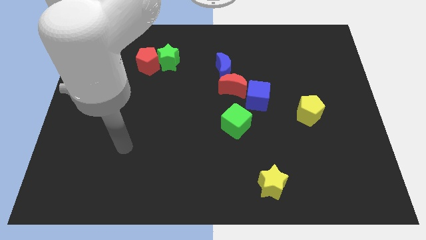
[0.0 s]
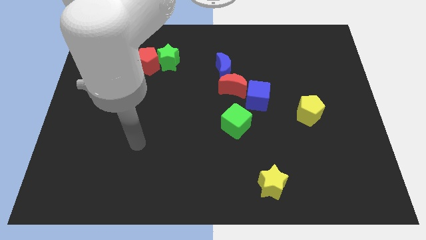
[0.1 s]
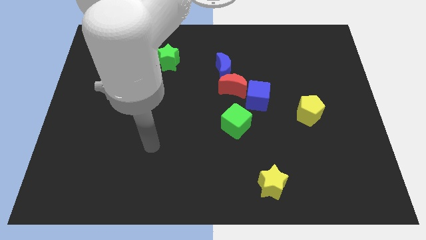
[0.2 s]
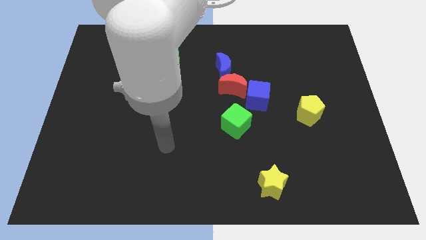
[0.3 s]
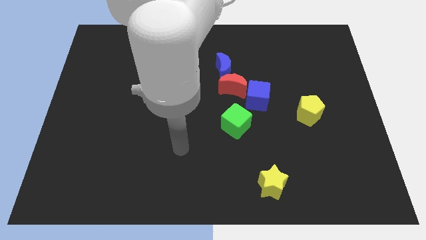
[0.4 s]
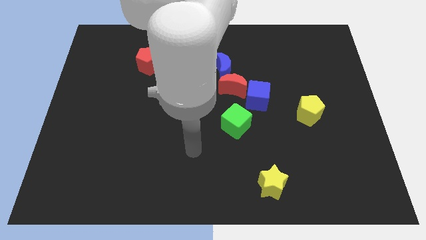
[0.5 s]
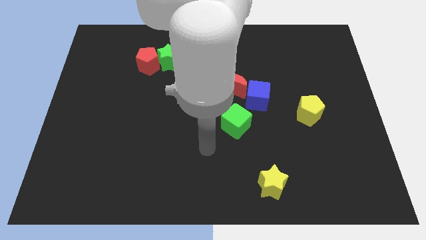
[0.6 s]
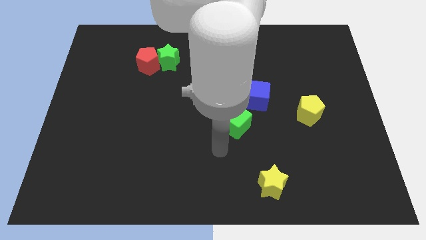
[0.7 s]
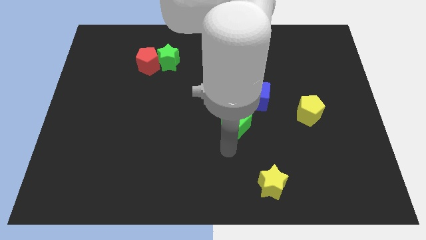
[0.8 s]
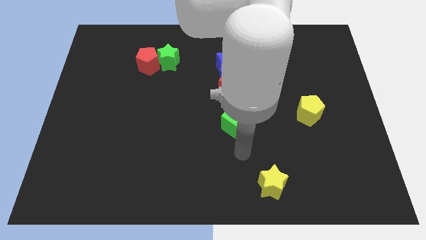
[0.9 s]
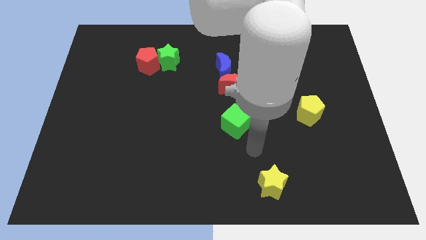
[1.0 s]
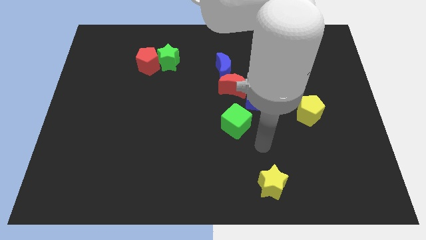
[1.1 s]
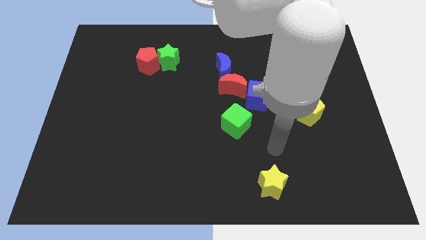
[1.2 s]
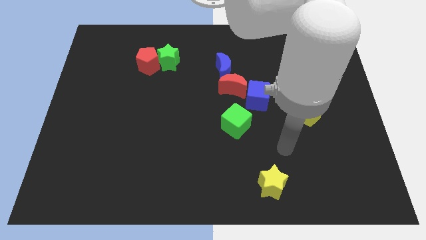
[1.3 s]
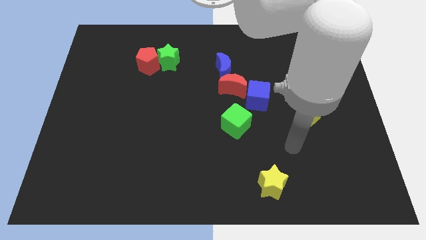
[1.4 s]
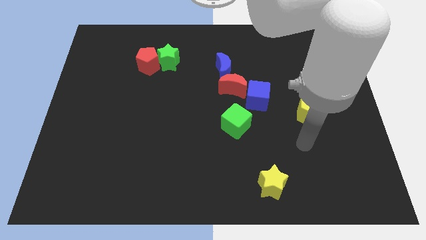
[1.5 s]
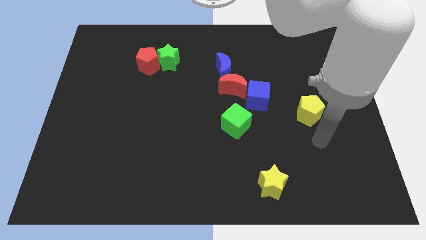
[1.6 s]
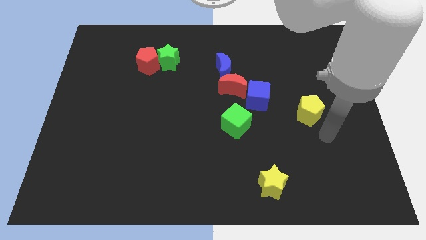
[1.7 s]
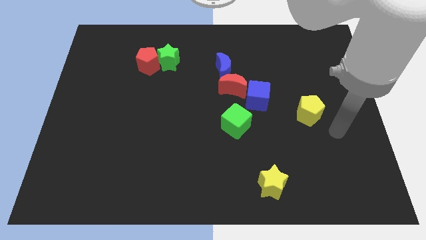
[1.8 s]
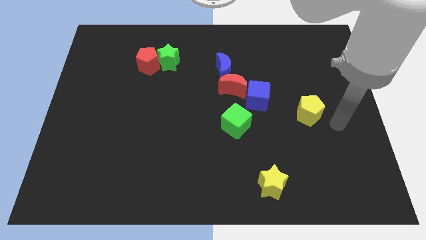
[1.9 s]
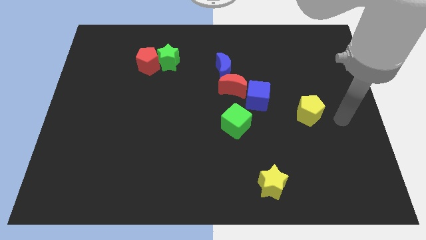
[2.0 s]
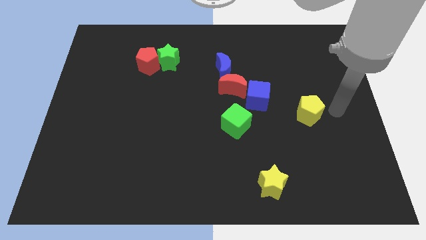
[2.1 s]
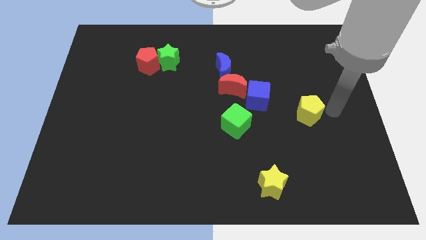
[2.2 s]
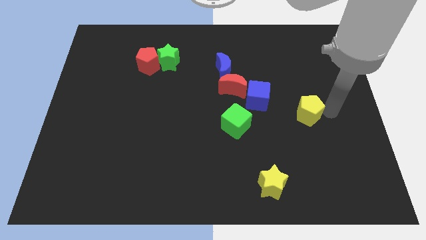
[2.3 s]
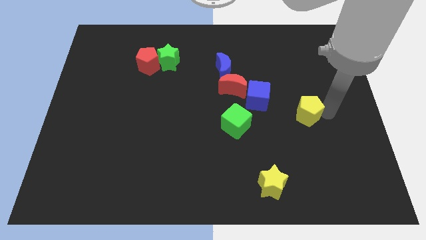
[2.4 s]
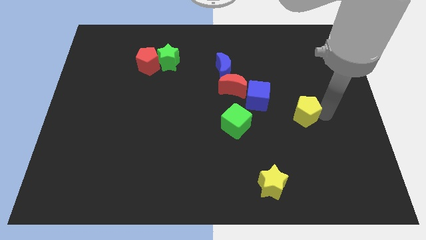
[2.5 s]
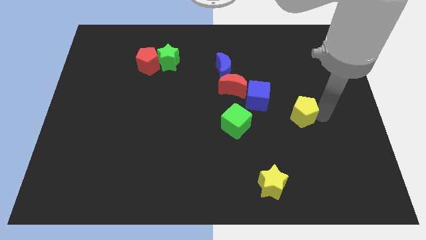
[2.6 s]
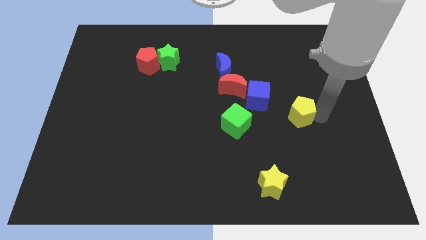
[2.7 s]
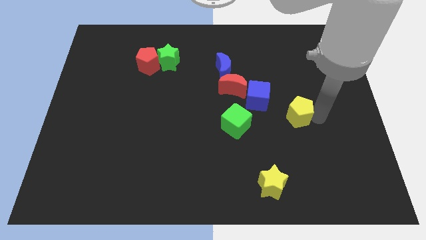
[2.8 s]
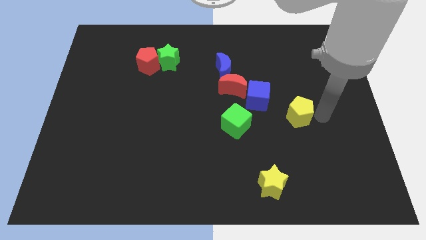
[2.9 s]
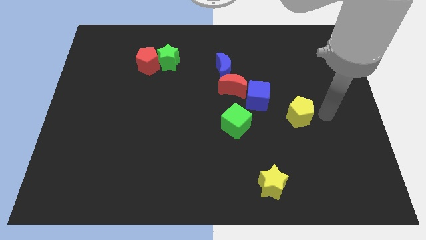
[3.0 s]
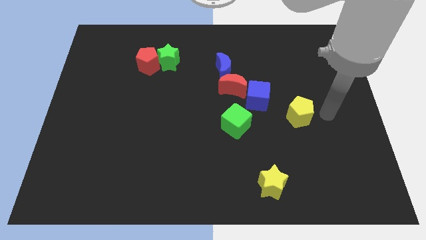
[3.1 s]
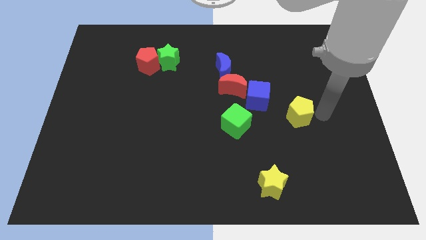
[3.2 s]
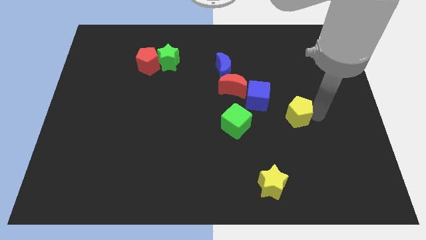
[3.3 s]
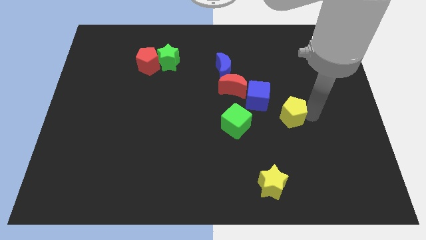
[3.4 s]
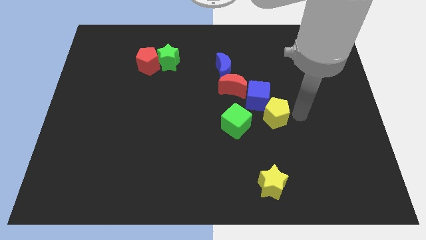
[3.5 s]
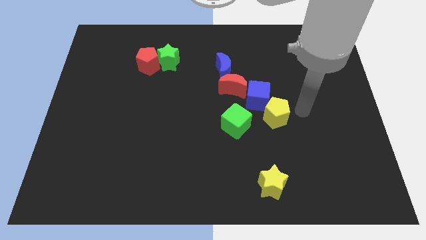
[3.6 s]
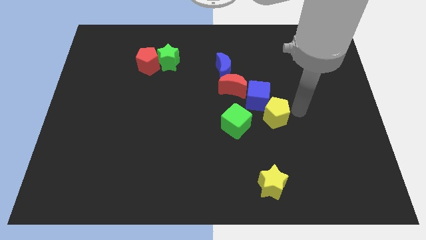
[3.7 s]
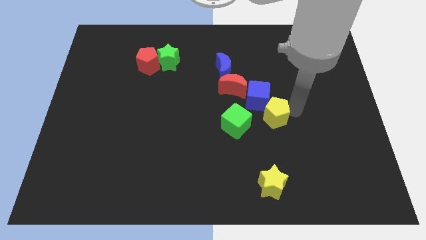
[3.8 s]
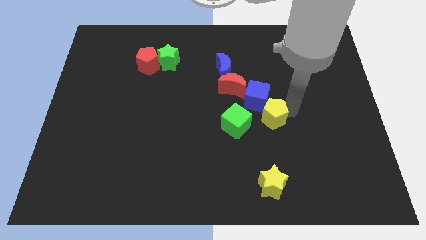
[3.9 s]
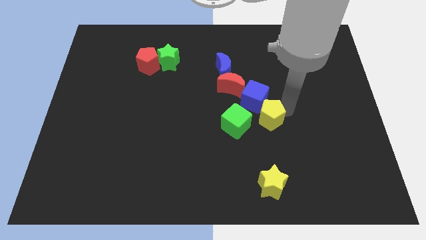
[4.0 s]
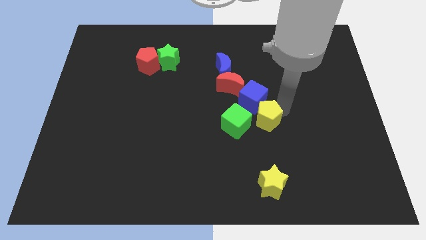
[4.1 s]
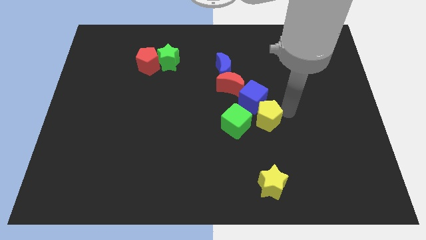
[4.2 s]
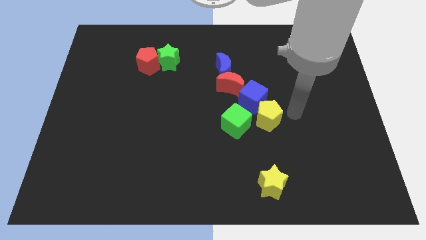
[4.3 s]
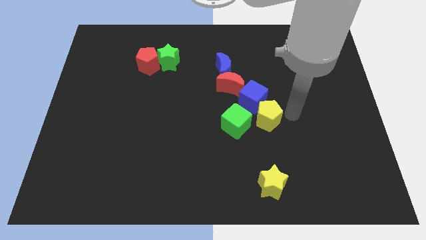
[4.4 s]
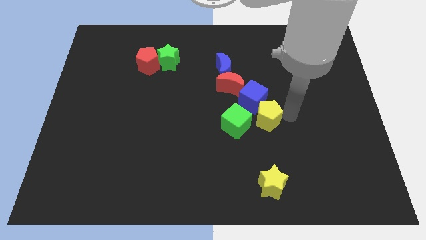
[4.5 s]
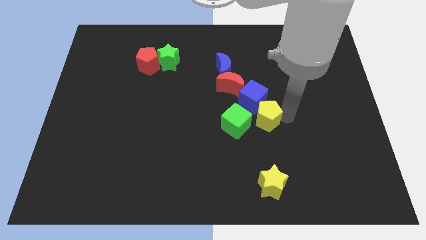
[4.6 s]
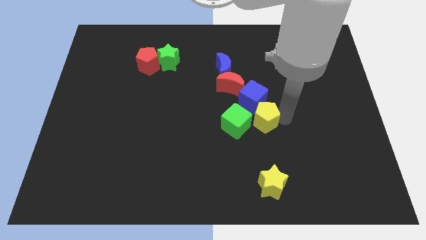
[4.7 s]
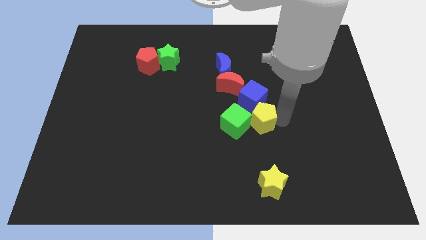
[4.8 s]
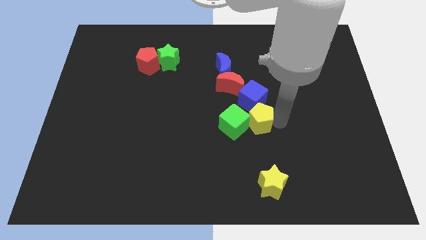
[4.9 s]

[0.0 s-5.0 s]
push the yellow pentagon to the green cube

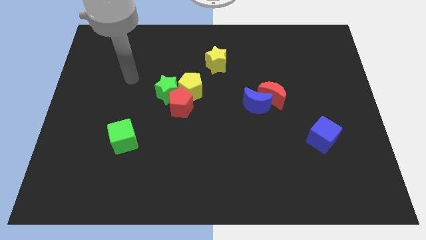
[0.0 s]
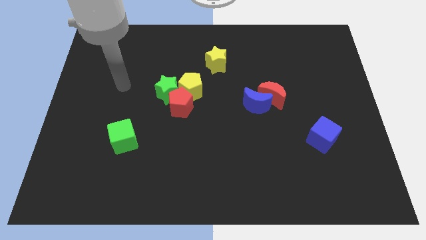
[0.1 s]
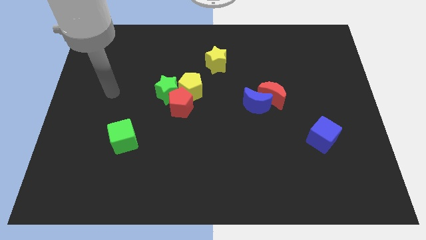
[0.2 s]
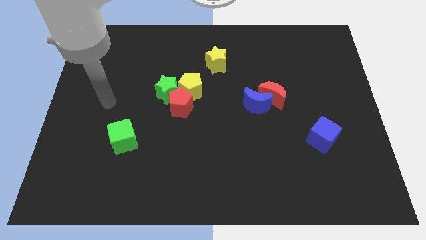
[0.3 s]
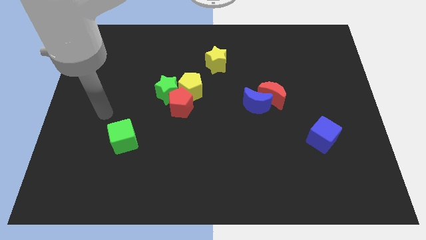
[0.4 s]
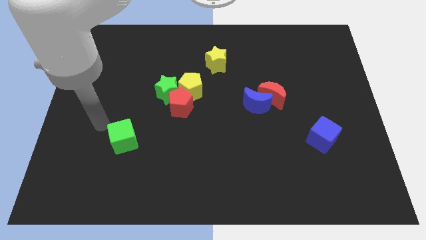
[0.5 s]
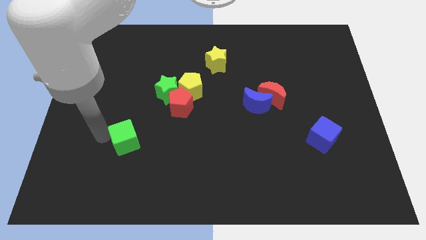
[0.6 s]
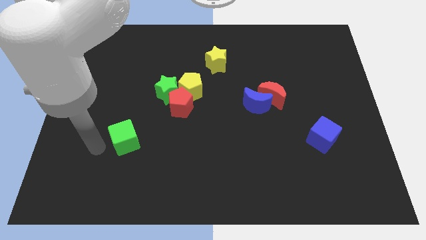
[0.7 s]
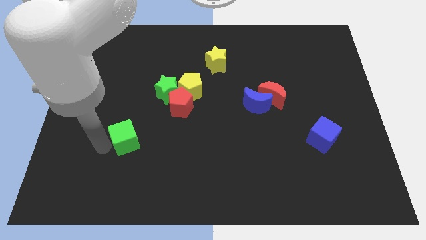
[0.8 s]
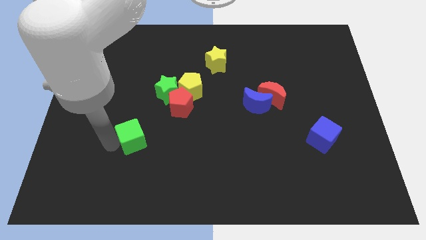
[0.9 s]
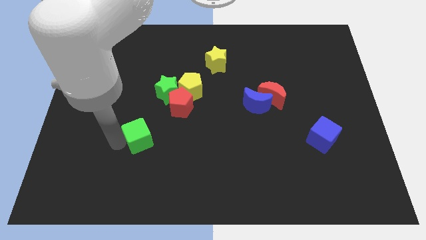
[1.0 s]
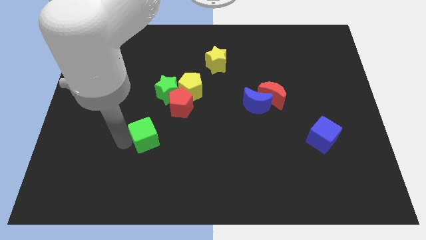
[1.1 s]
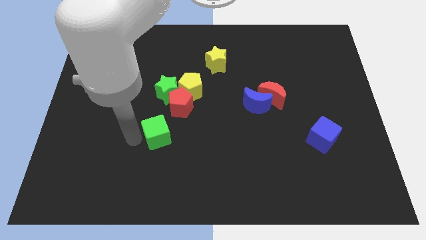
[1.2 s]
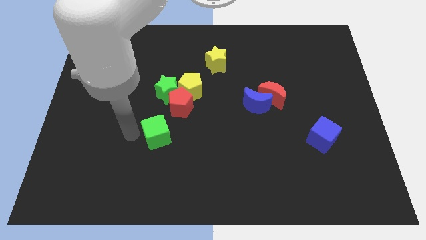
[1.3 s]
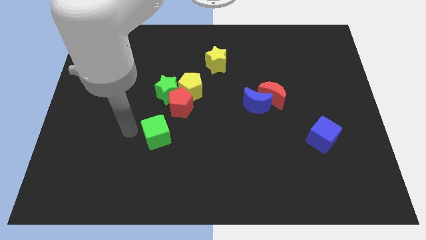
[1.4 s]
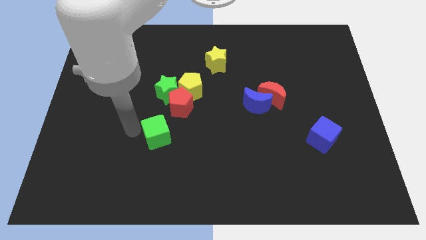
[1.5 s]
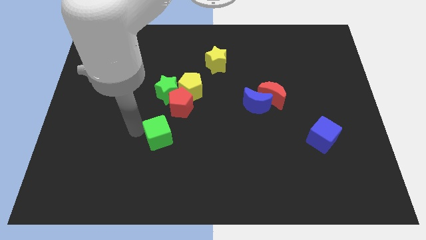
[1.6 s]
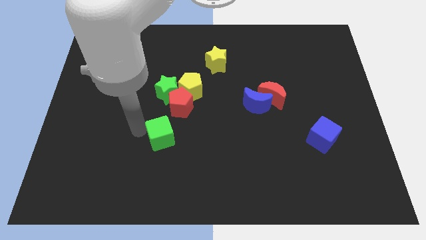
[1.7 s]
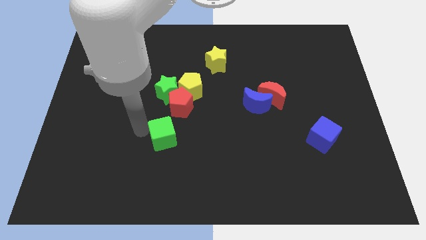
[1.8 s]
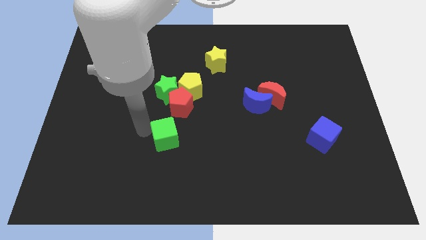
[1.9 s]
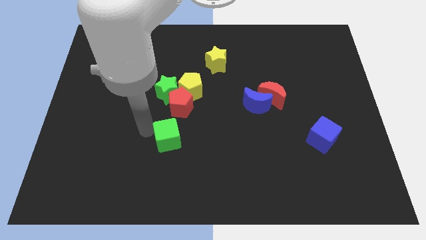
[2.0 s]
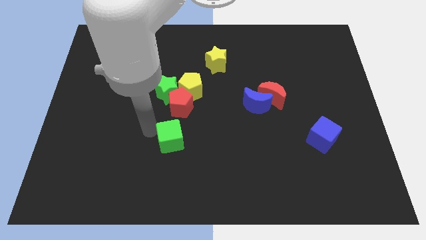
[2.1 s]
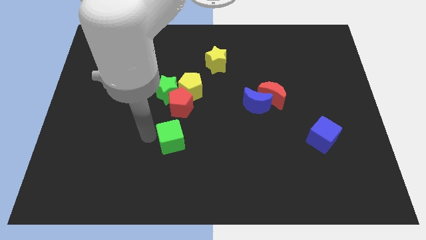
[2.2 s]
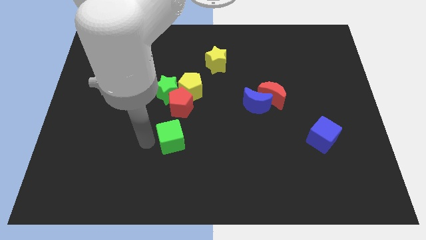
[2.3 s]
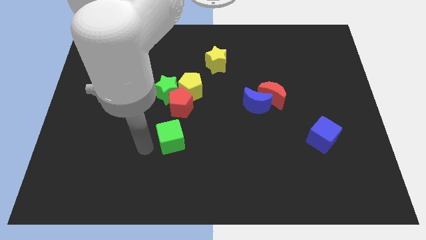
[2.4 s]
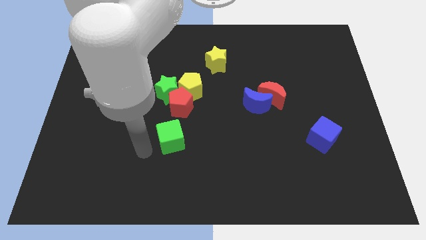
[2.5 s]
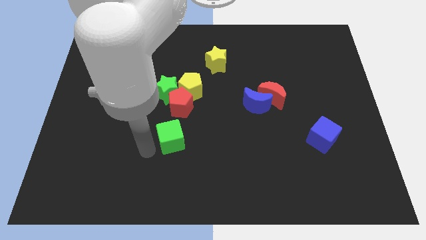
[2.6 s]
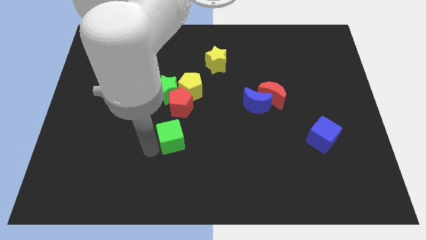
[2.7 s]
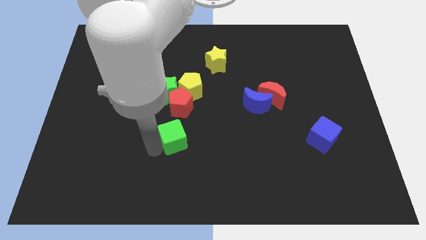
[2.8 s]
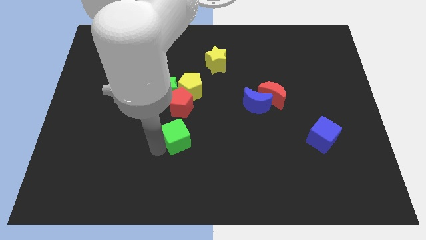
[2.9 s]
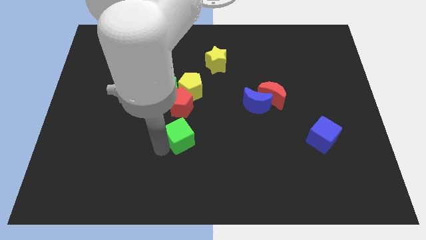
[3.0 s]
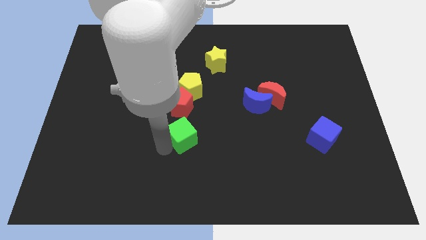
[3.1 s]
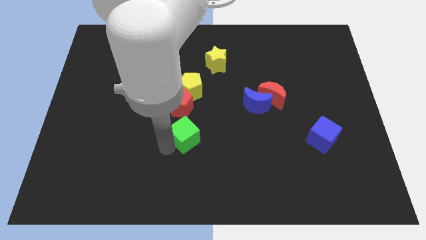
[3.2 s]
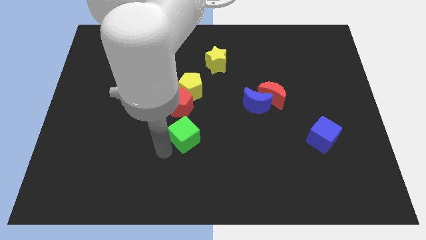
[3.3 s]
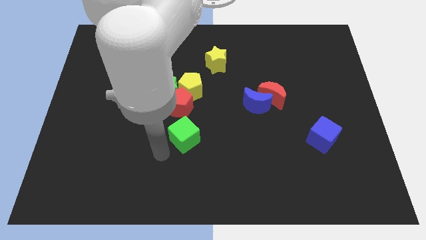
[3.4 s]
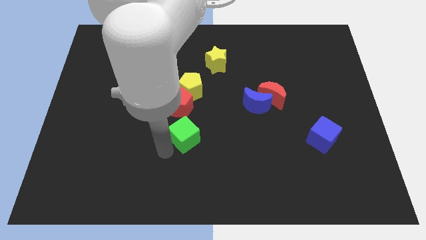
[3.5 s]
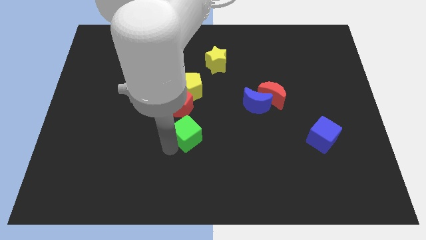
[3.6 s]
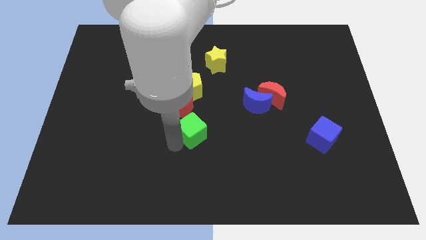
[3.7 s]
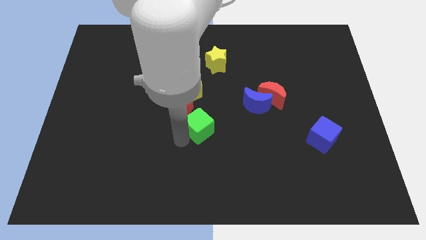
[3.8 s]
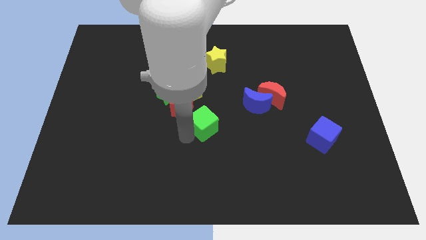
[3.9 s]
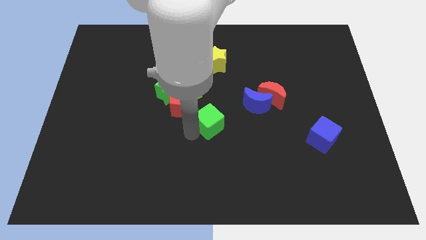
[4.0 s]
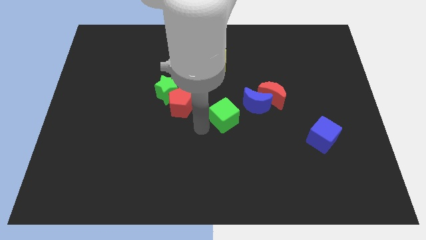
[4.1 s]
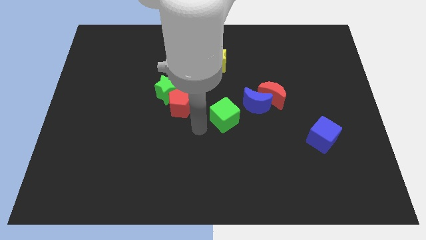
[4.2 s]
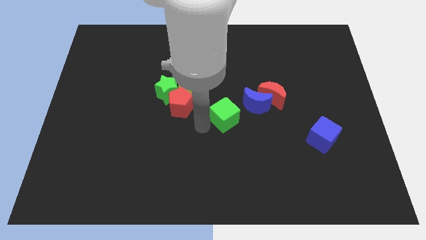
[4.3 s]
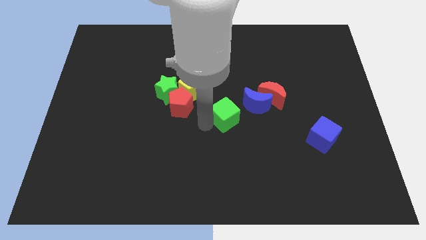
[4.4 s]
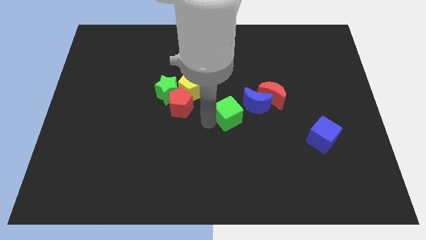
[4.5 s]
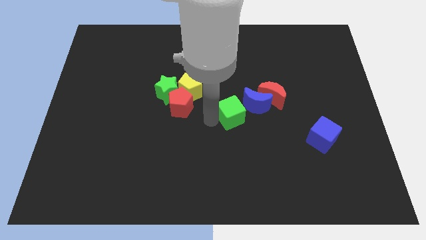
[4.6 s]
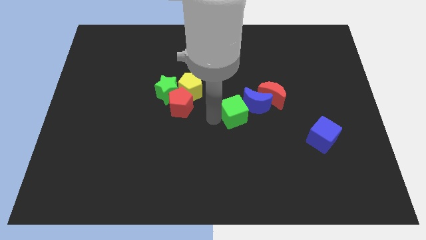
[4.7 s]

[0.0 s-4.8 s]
put the green cube to the blue moon
